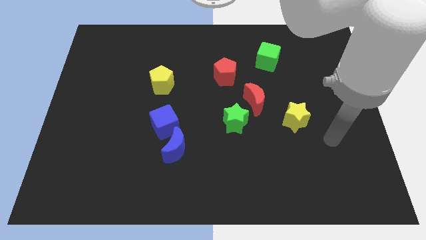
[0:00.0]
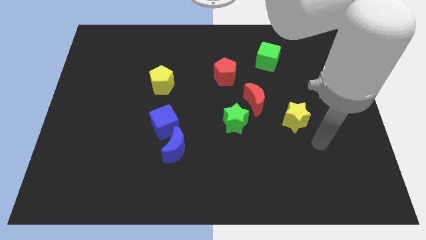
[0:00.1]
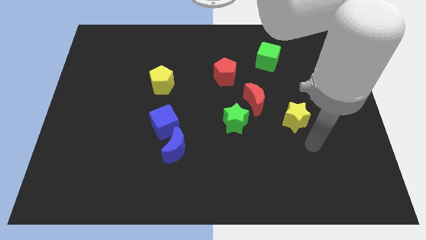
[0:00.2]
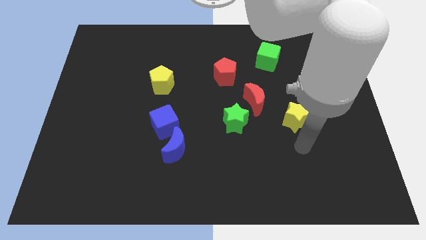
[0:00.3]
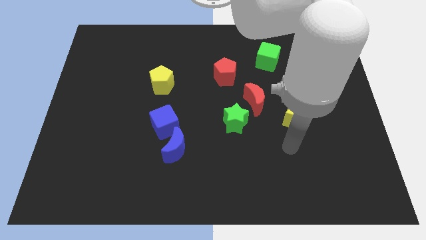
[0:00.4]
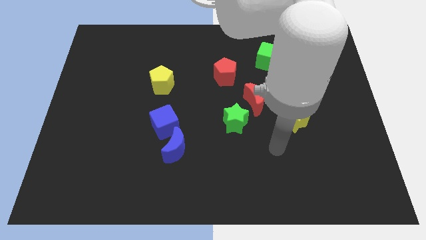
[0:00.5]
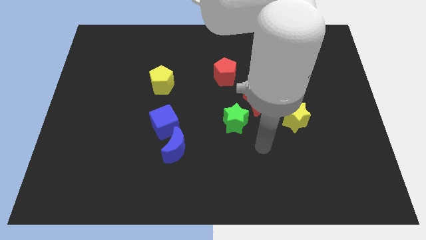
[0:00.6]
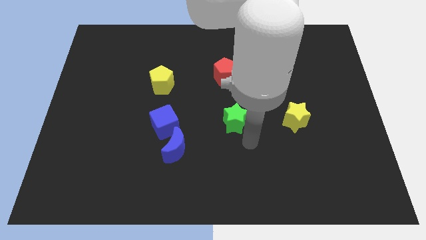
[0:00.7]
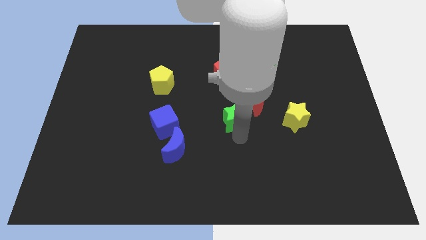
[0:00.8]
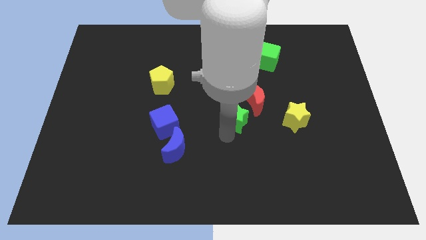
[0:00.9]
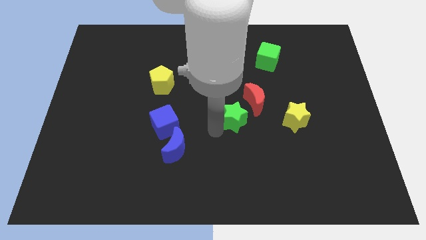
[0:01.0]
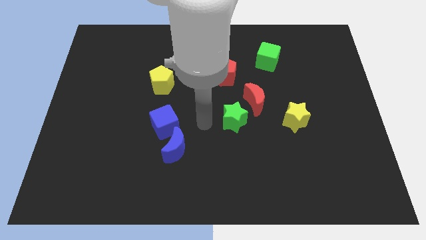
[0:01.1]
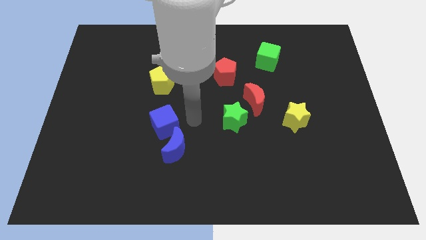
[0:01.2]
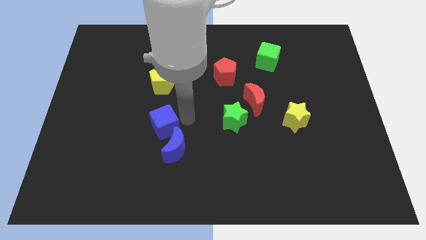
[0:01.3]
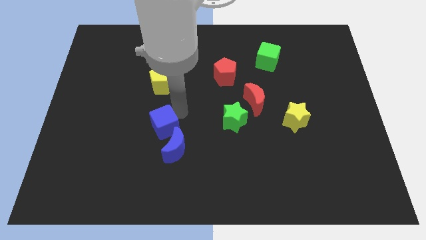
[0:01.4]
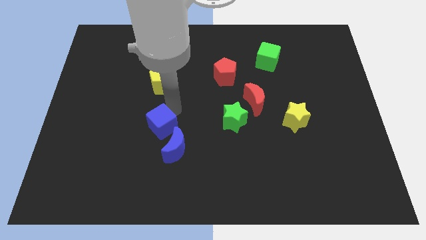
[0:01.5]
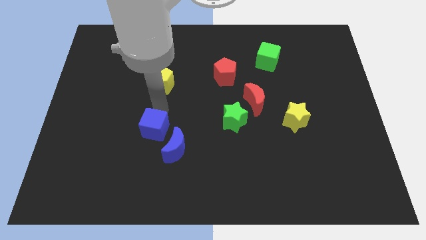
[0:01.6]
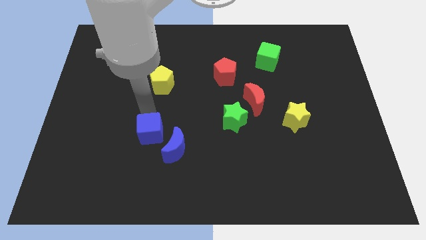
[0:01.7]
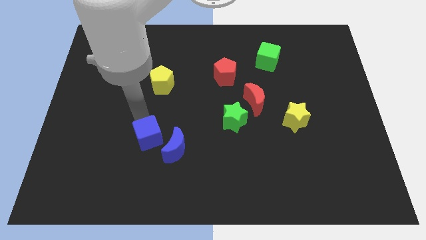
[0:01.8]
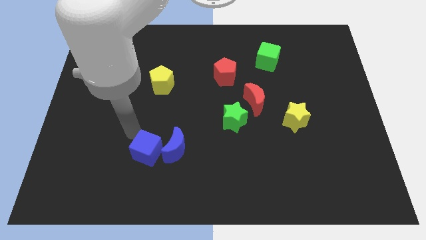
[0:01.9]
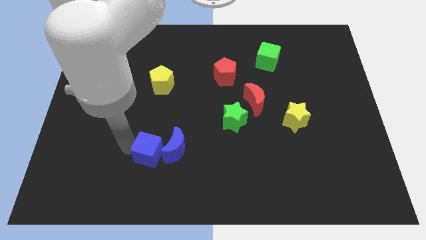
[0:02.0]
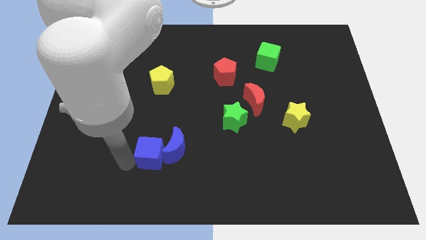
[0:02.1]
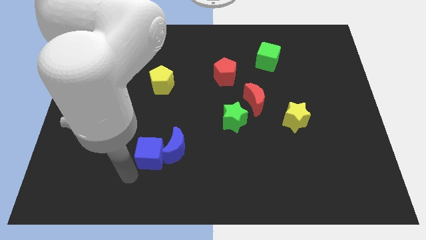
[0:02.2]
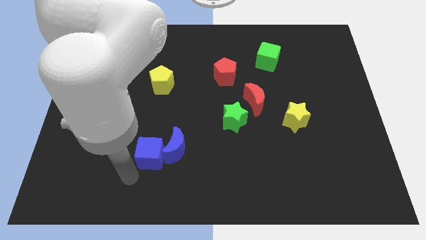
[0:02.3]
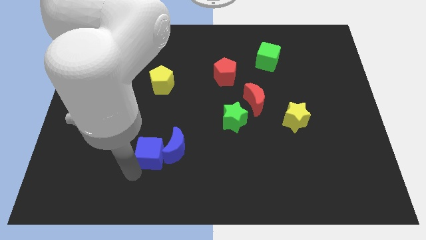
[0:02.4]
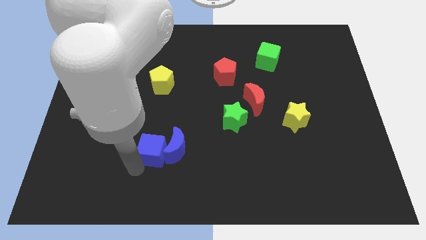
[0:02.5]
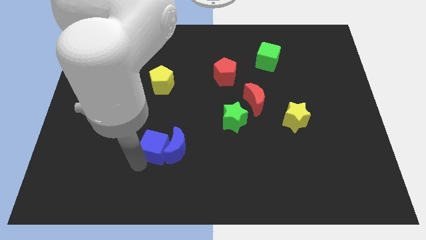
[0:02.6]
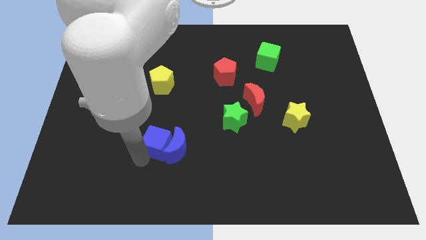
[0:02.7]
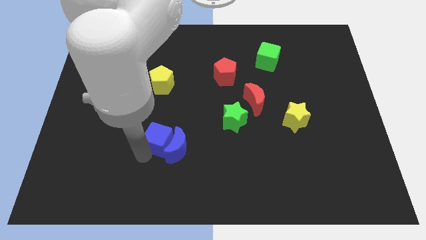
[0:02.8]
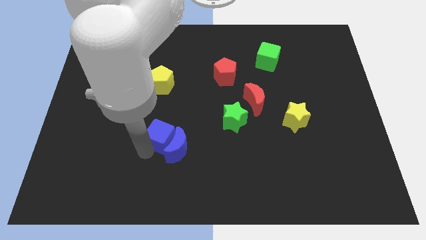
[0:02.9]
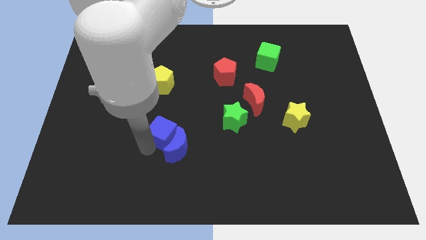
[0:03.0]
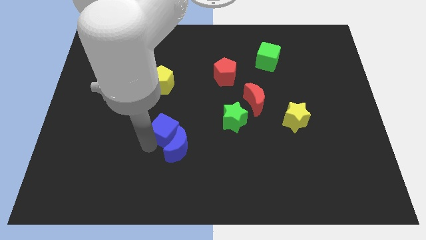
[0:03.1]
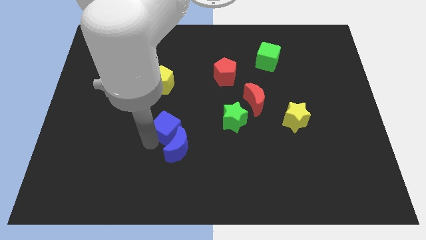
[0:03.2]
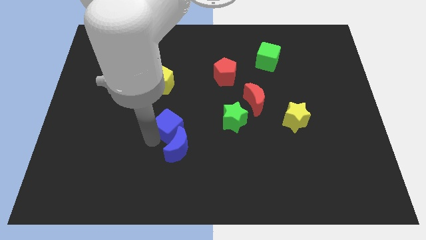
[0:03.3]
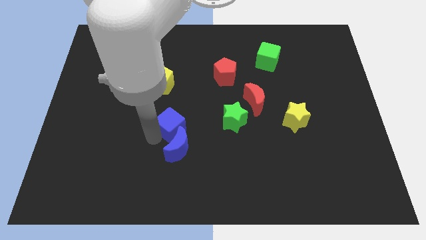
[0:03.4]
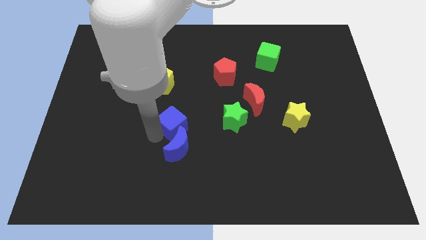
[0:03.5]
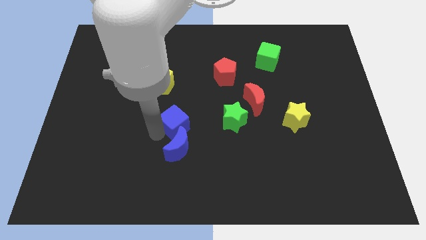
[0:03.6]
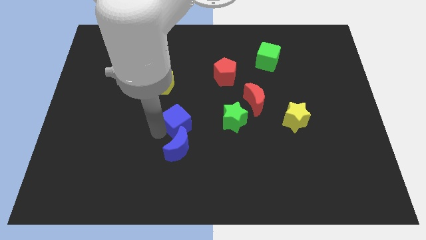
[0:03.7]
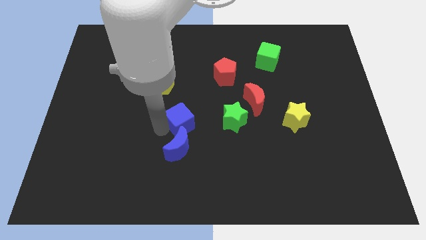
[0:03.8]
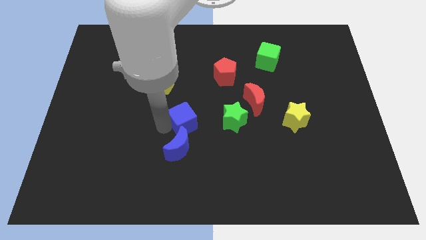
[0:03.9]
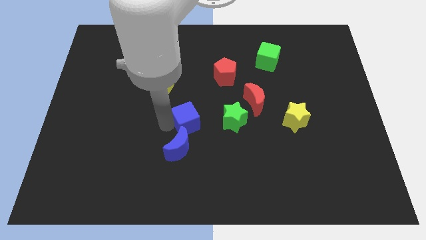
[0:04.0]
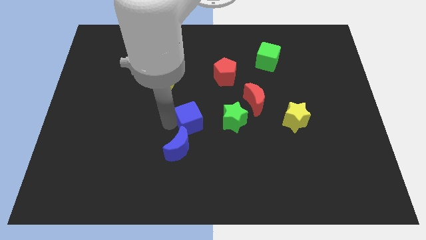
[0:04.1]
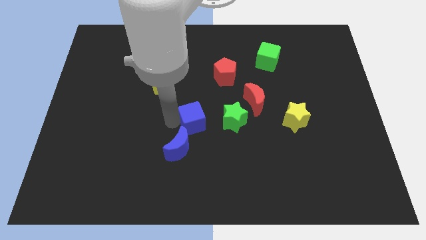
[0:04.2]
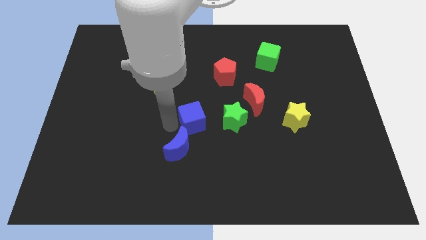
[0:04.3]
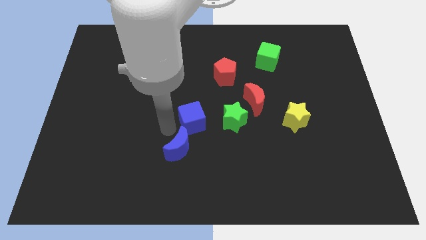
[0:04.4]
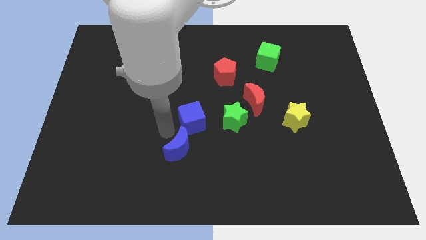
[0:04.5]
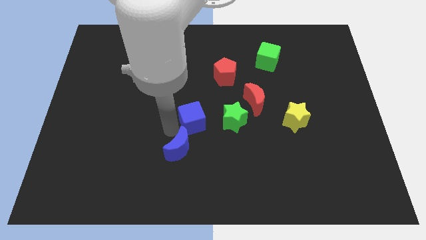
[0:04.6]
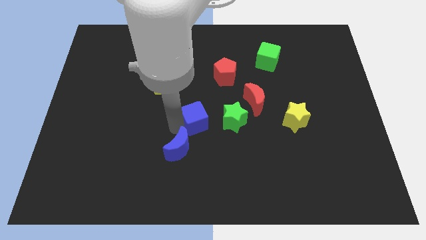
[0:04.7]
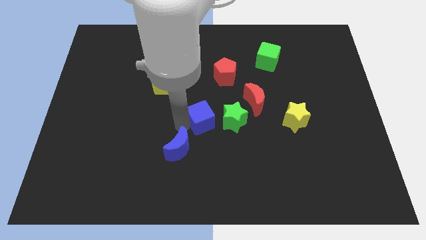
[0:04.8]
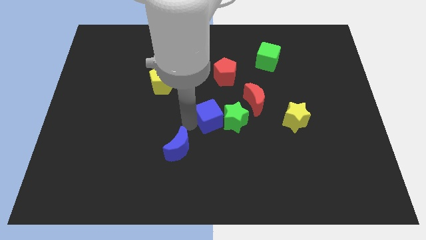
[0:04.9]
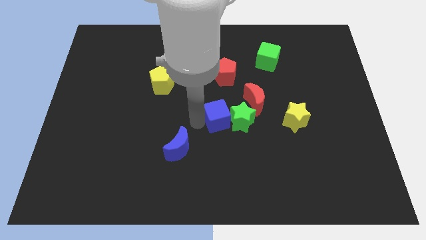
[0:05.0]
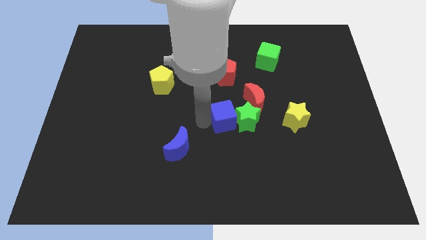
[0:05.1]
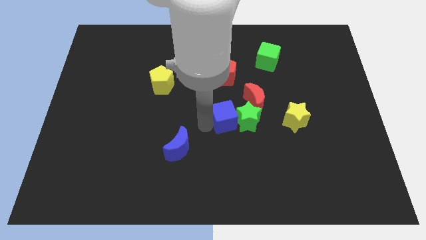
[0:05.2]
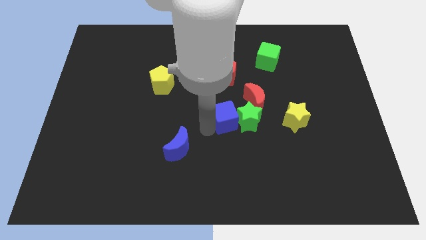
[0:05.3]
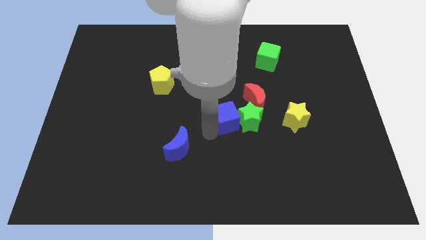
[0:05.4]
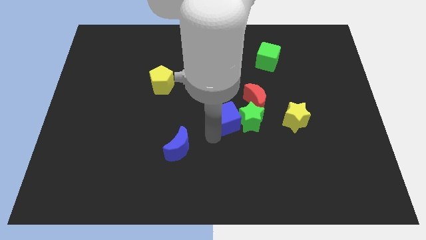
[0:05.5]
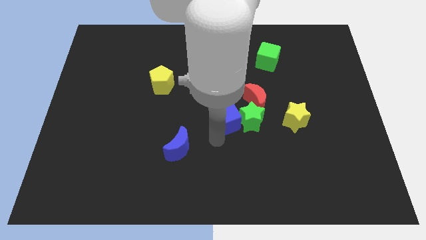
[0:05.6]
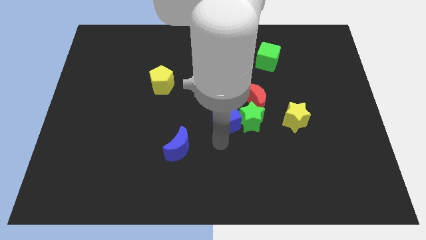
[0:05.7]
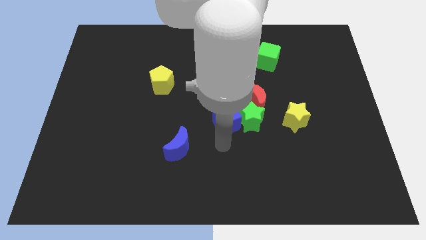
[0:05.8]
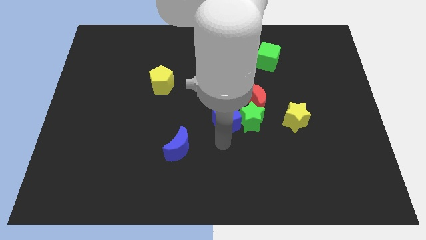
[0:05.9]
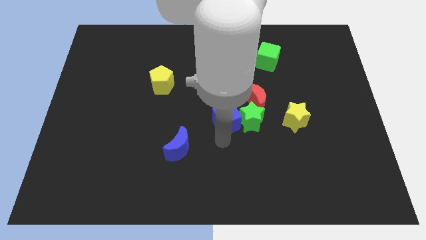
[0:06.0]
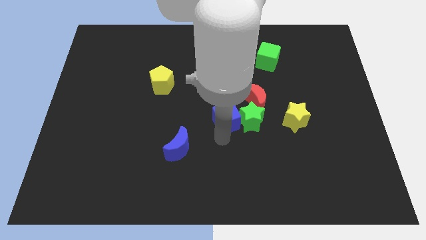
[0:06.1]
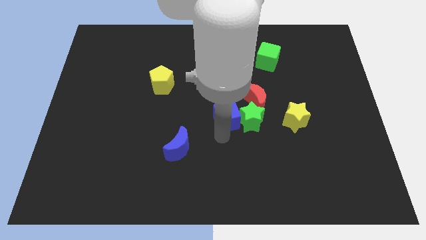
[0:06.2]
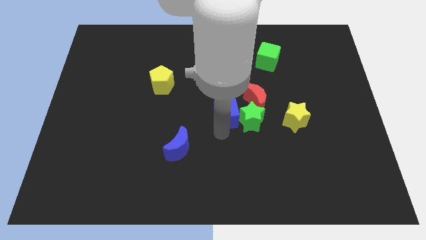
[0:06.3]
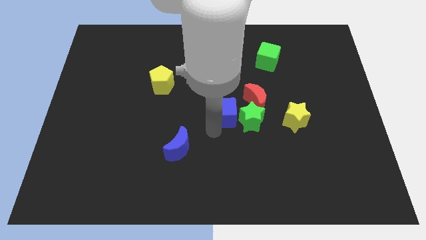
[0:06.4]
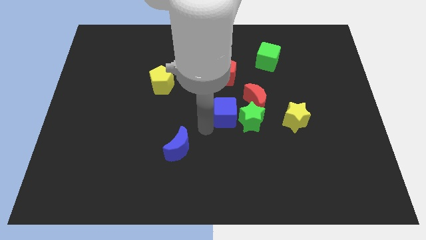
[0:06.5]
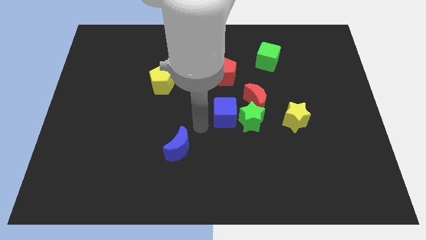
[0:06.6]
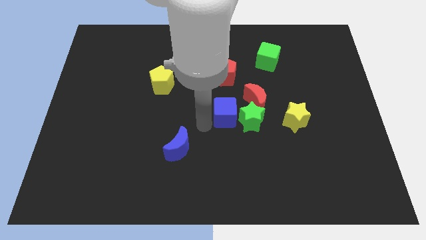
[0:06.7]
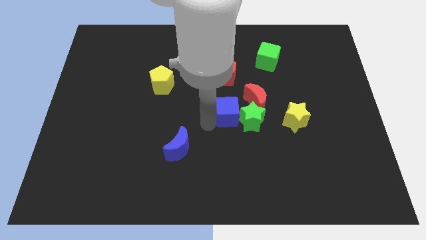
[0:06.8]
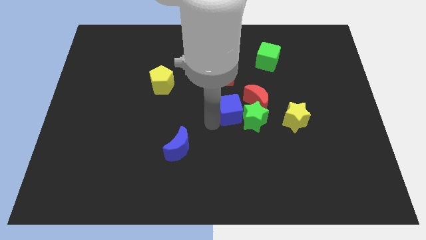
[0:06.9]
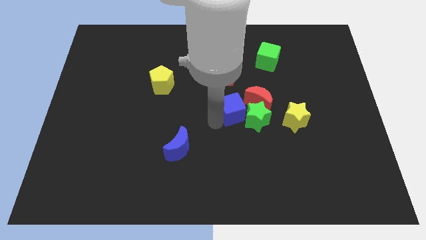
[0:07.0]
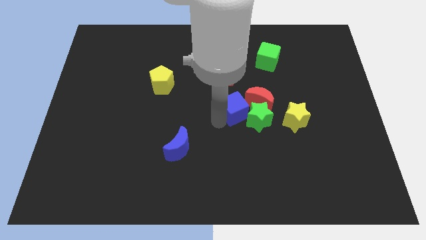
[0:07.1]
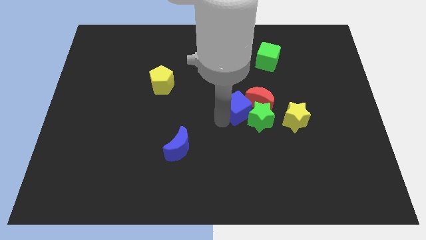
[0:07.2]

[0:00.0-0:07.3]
put the blue cube to the red moon
